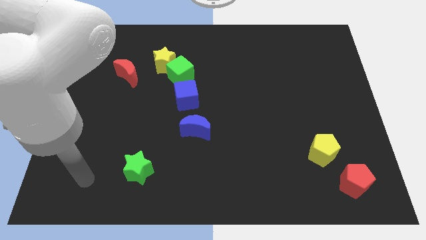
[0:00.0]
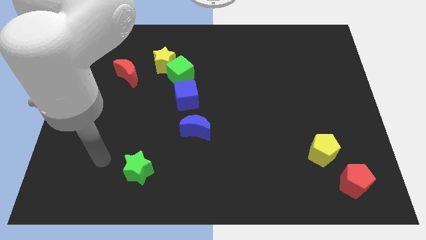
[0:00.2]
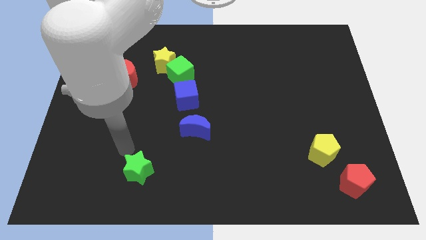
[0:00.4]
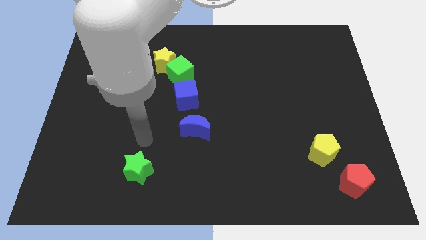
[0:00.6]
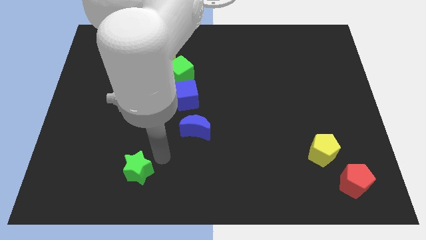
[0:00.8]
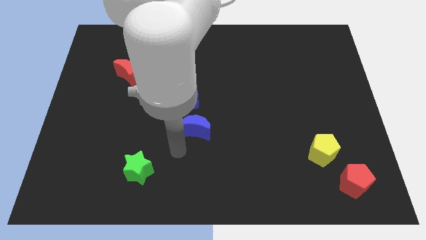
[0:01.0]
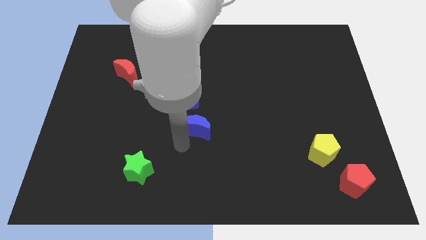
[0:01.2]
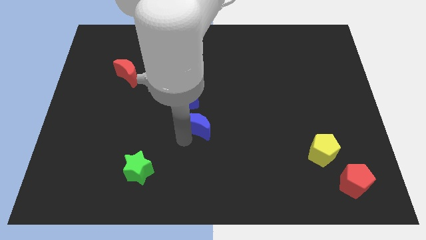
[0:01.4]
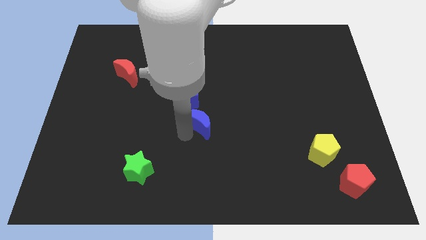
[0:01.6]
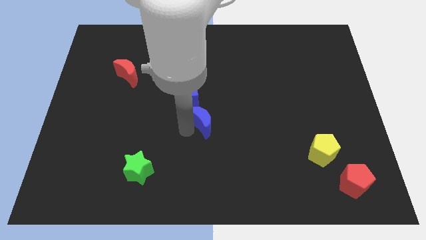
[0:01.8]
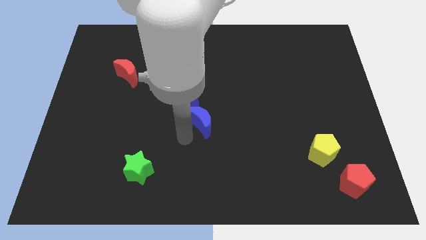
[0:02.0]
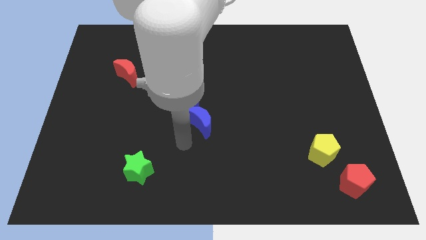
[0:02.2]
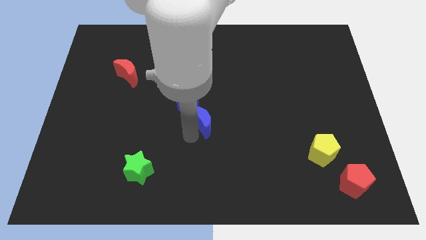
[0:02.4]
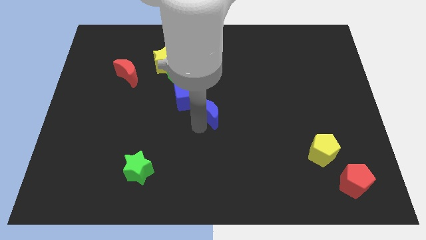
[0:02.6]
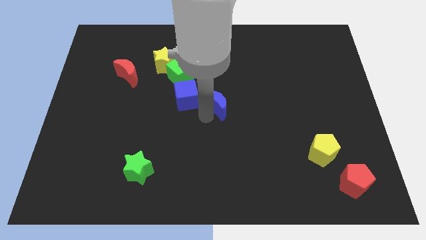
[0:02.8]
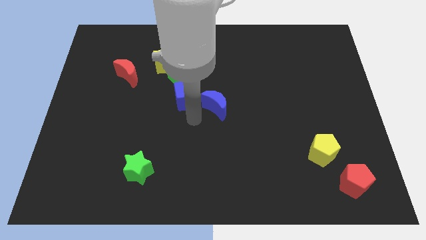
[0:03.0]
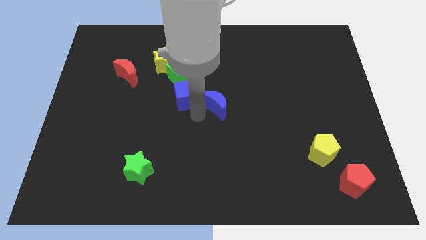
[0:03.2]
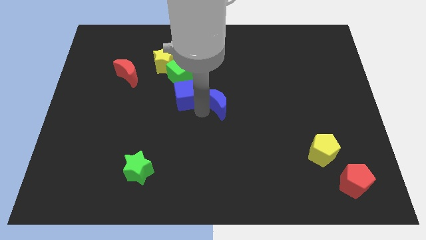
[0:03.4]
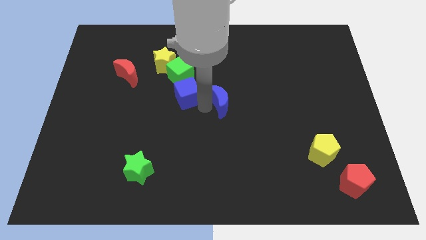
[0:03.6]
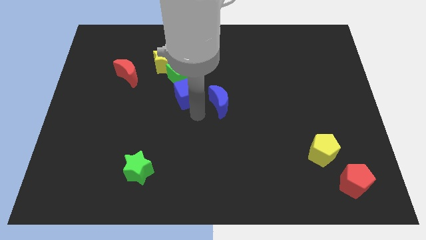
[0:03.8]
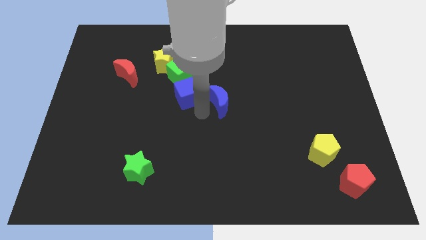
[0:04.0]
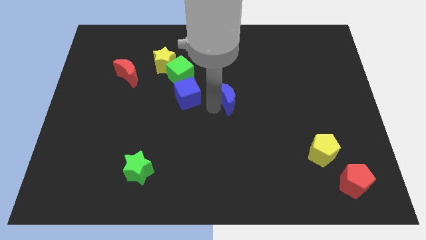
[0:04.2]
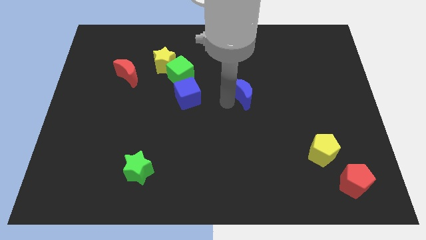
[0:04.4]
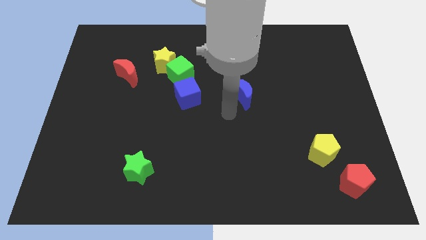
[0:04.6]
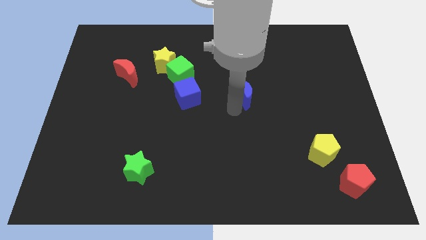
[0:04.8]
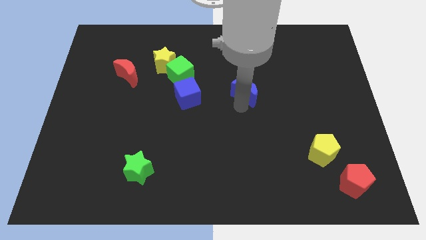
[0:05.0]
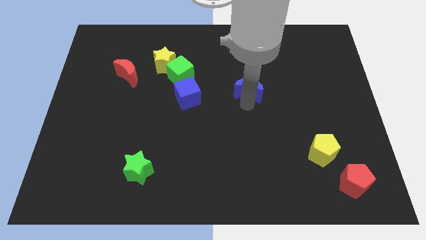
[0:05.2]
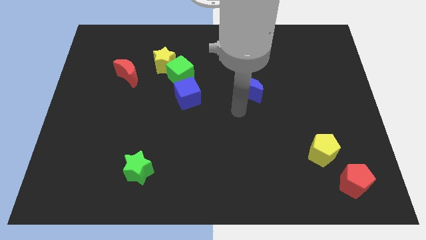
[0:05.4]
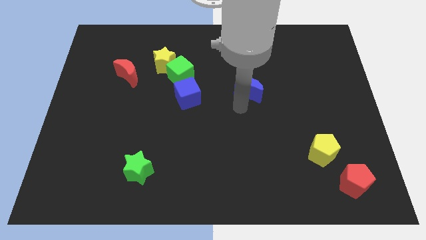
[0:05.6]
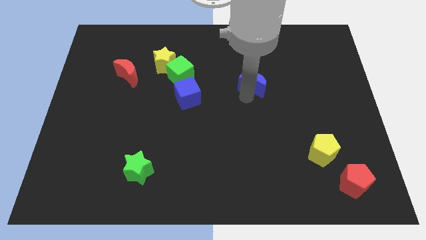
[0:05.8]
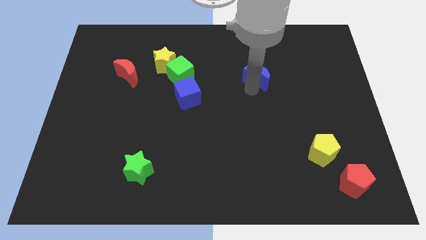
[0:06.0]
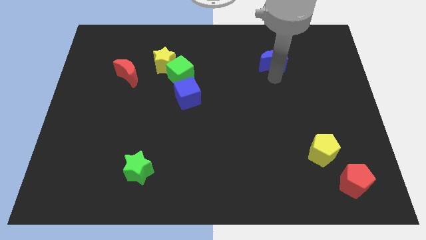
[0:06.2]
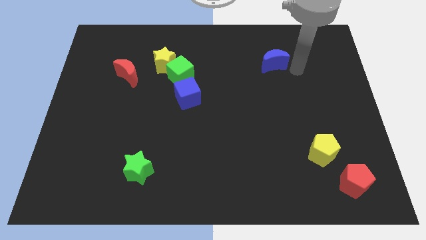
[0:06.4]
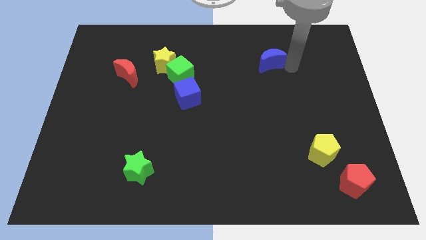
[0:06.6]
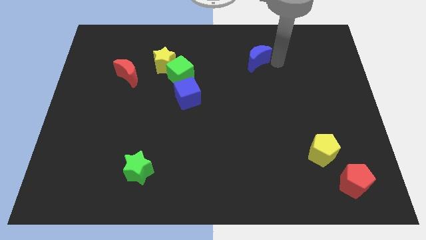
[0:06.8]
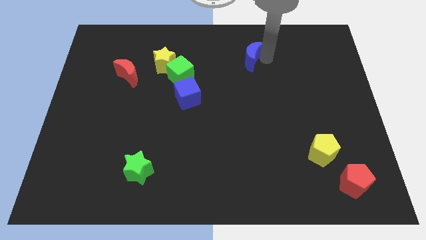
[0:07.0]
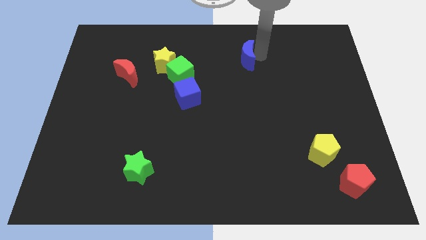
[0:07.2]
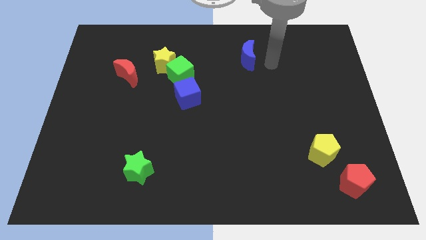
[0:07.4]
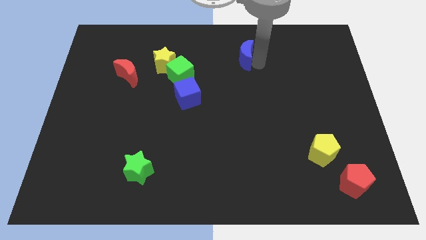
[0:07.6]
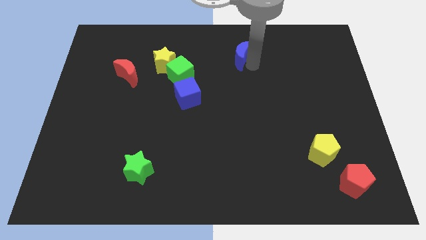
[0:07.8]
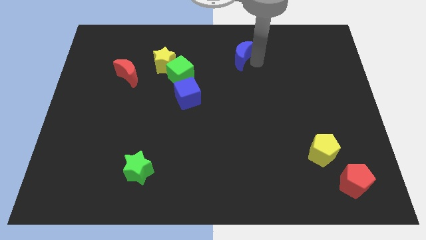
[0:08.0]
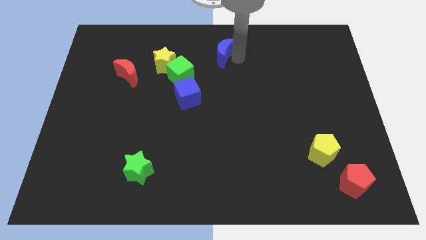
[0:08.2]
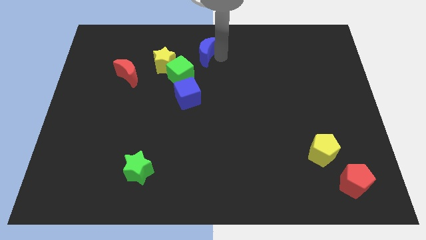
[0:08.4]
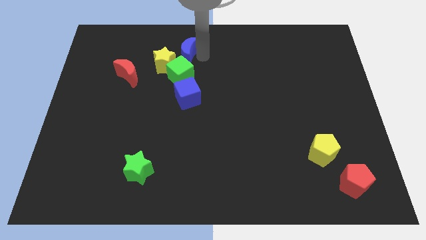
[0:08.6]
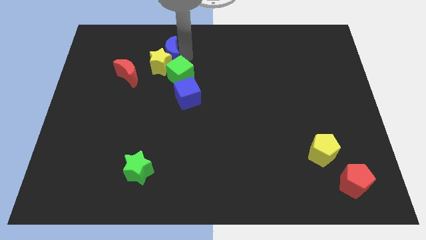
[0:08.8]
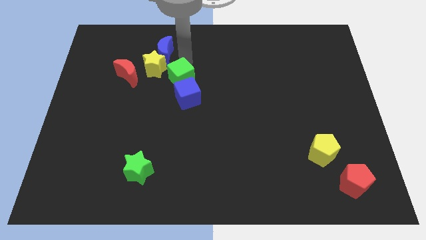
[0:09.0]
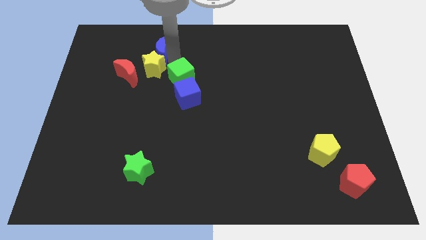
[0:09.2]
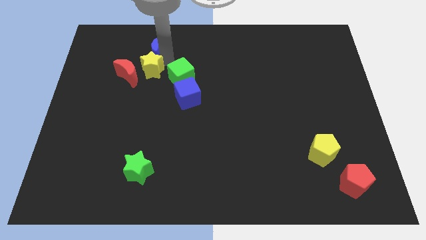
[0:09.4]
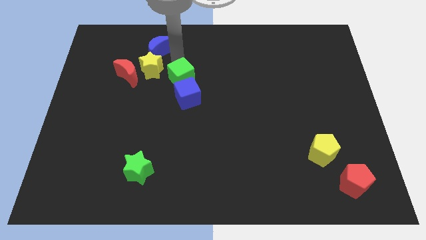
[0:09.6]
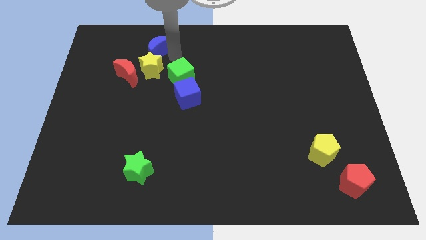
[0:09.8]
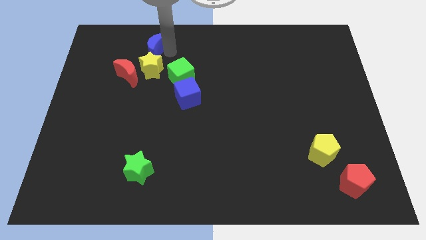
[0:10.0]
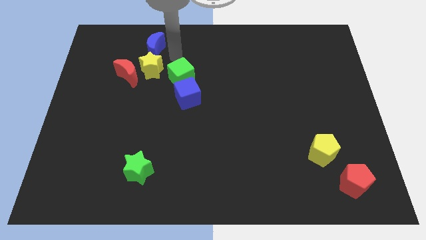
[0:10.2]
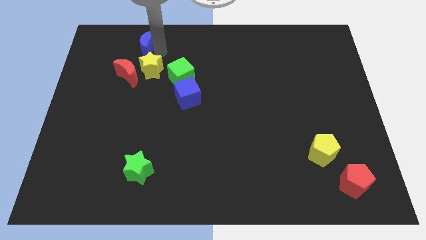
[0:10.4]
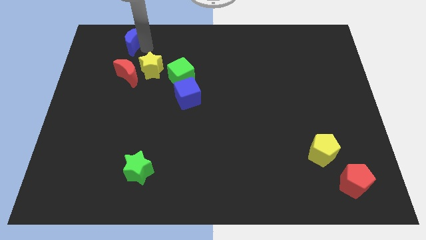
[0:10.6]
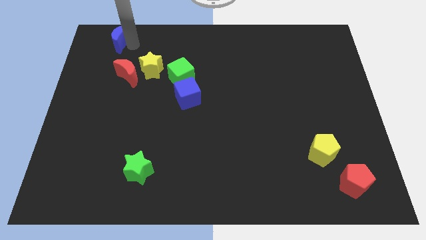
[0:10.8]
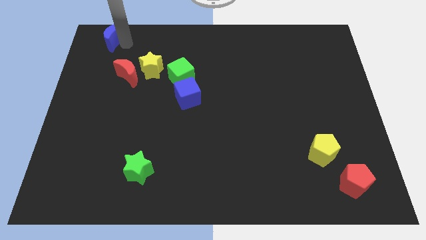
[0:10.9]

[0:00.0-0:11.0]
move the blue moon to the top left

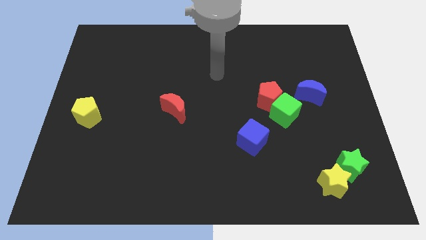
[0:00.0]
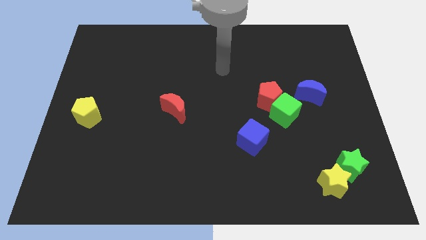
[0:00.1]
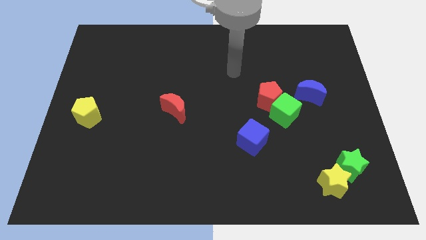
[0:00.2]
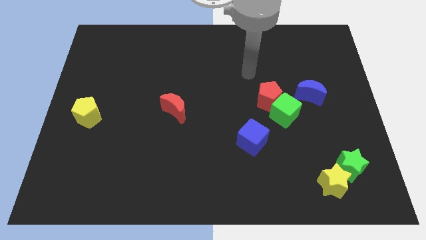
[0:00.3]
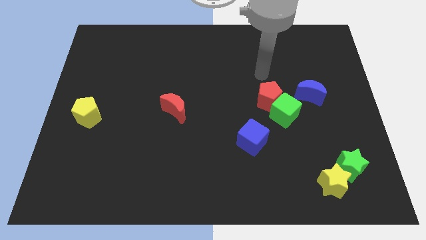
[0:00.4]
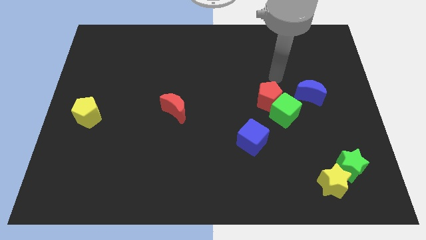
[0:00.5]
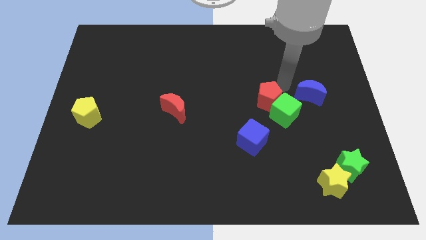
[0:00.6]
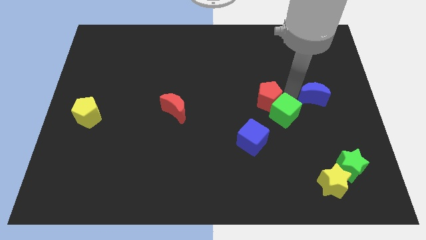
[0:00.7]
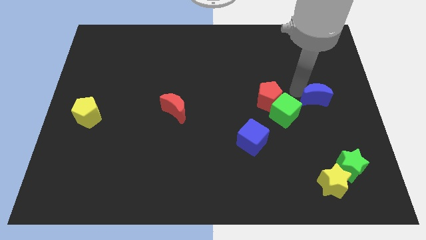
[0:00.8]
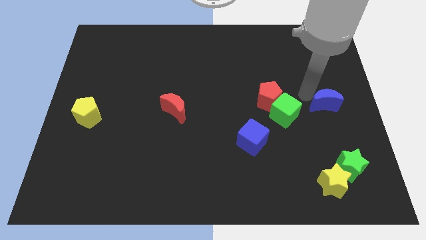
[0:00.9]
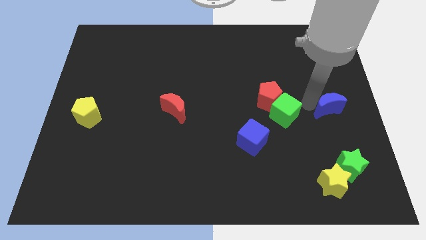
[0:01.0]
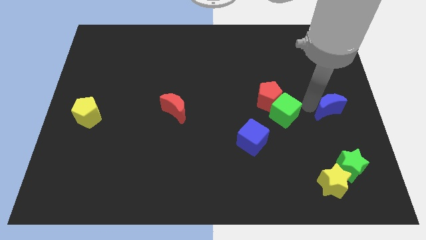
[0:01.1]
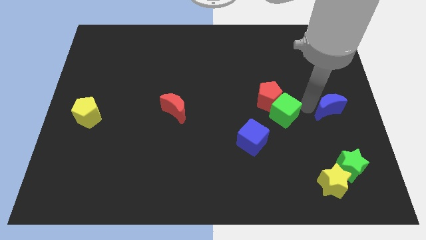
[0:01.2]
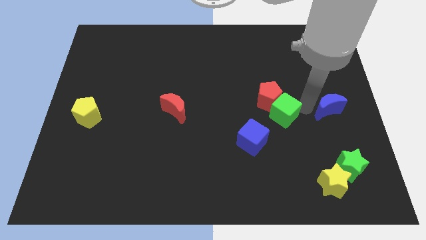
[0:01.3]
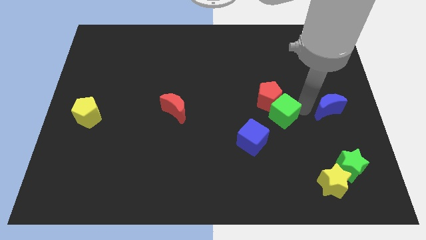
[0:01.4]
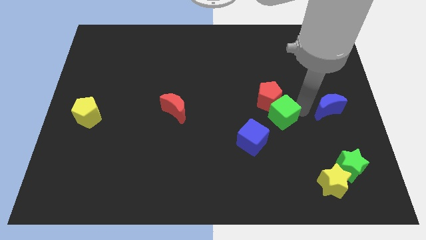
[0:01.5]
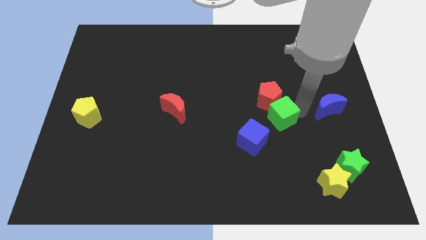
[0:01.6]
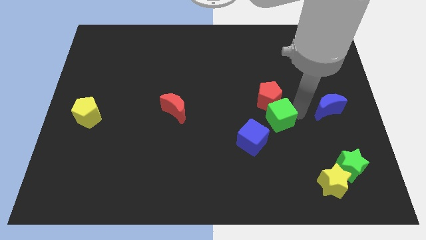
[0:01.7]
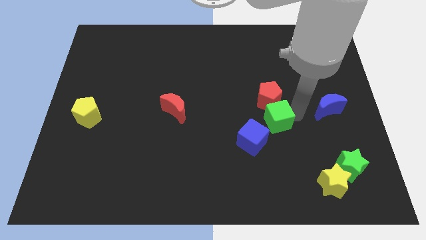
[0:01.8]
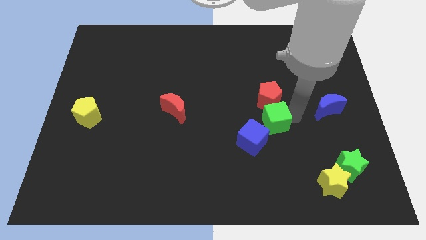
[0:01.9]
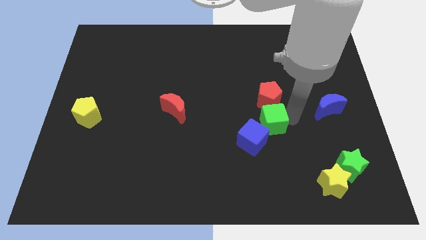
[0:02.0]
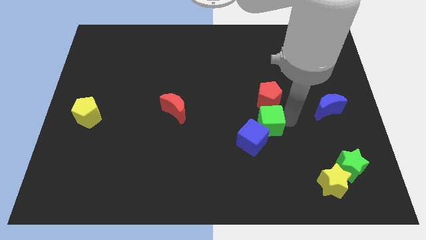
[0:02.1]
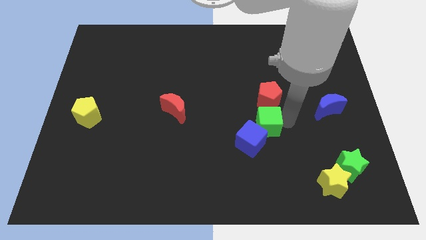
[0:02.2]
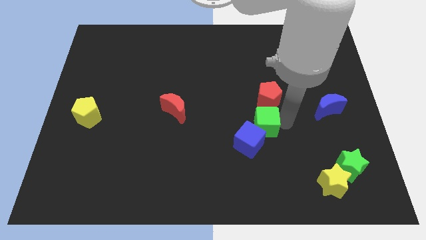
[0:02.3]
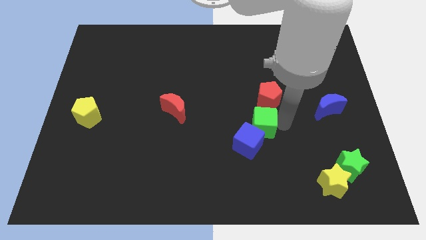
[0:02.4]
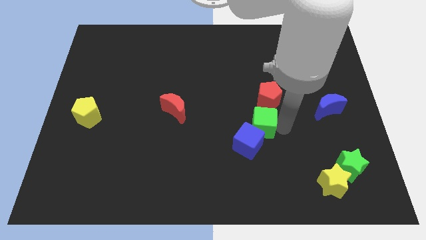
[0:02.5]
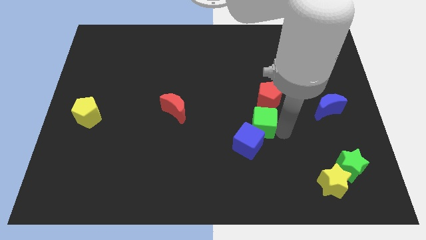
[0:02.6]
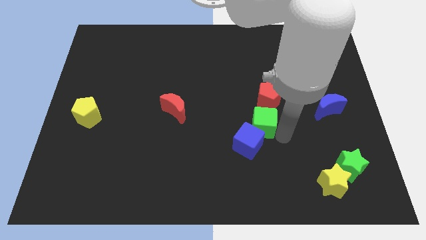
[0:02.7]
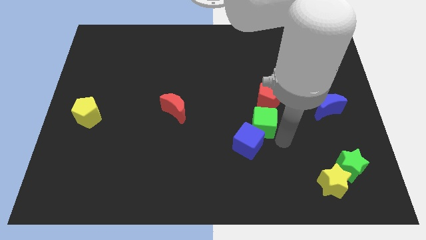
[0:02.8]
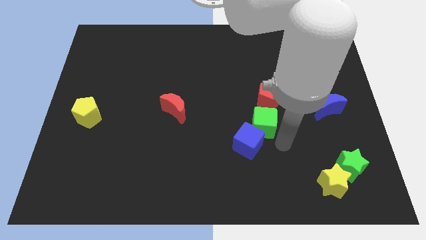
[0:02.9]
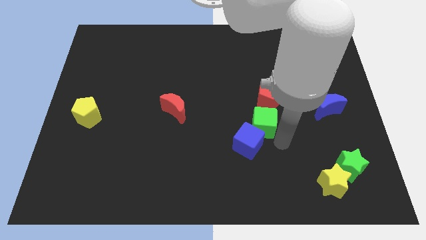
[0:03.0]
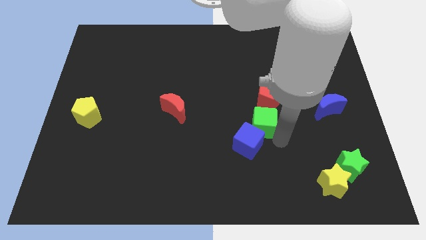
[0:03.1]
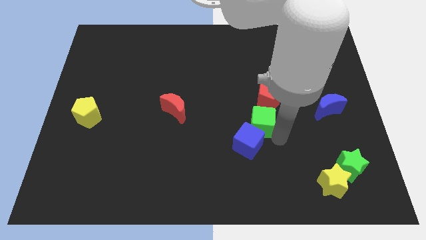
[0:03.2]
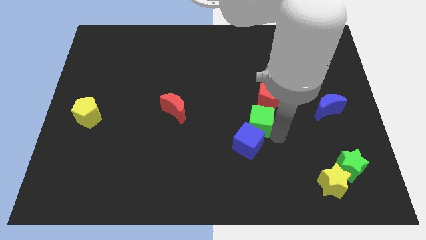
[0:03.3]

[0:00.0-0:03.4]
push the green cube to the center
